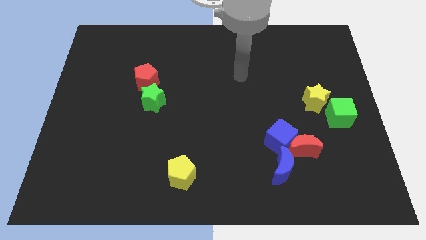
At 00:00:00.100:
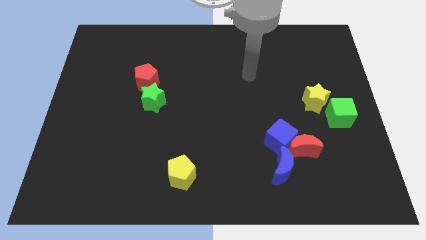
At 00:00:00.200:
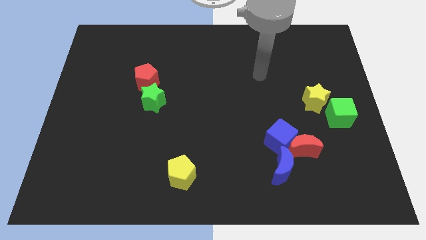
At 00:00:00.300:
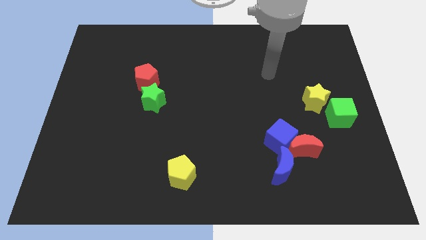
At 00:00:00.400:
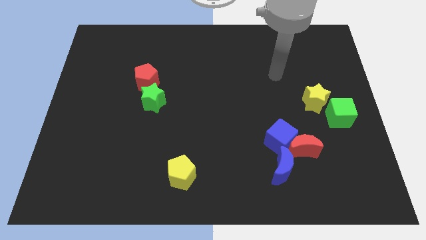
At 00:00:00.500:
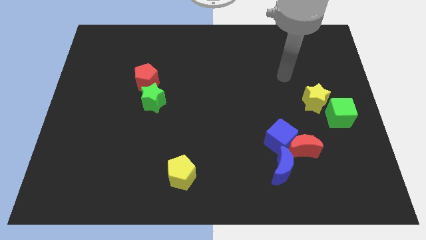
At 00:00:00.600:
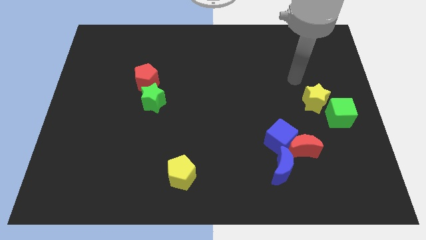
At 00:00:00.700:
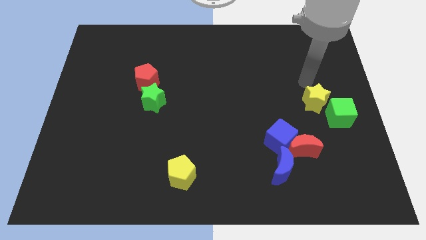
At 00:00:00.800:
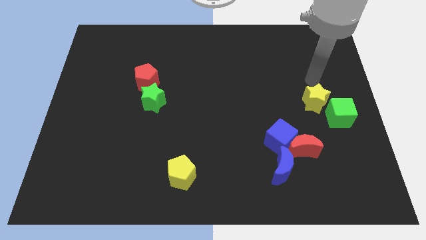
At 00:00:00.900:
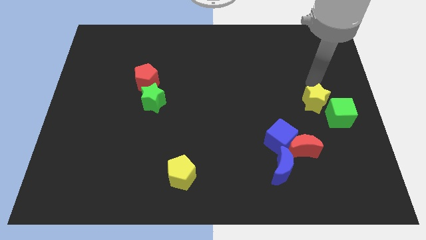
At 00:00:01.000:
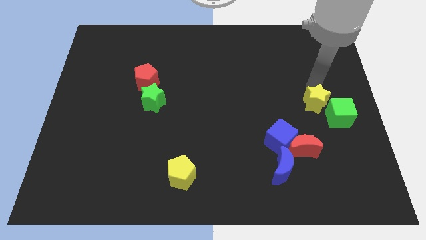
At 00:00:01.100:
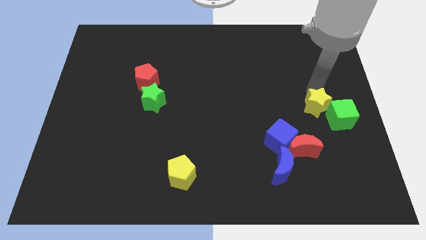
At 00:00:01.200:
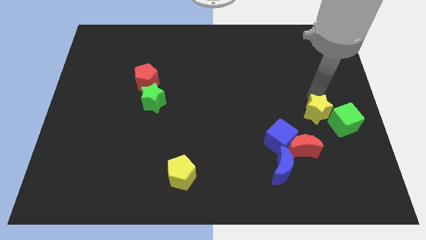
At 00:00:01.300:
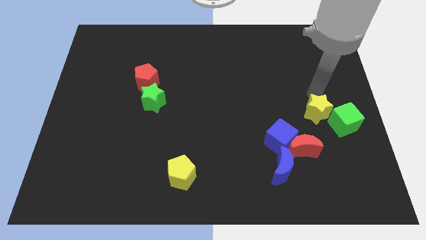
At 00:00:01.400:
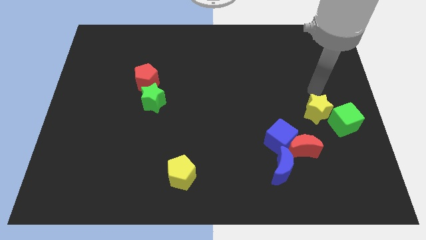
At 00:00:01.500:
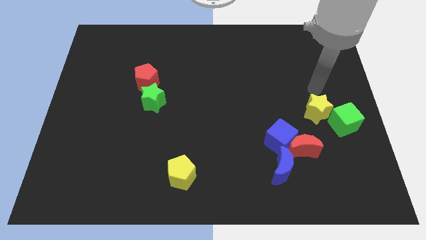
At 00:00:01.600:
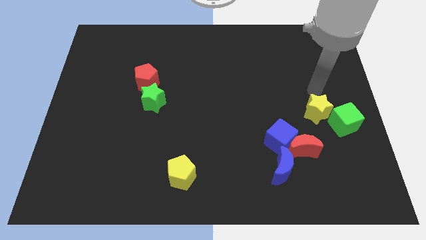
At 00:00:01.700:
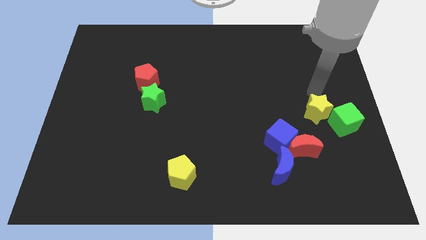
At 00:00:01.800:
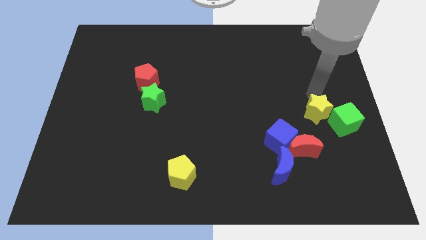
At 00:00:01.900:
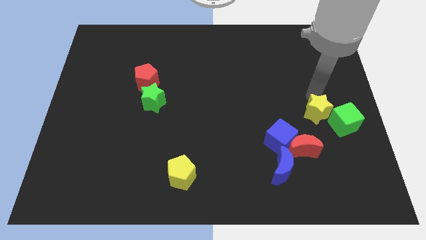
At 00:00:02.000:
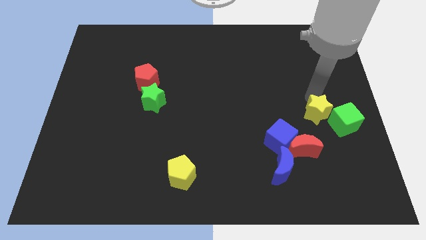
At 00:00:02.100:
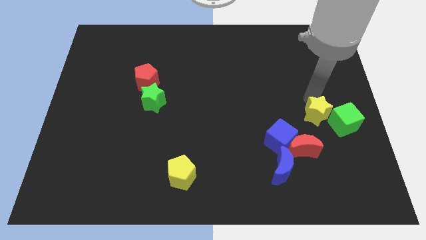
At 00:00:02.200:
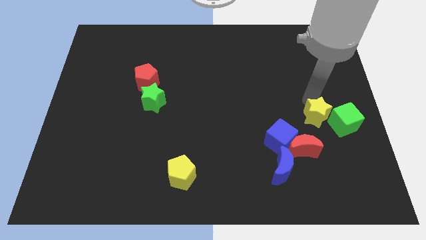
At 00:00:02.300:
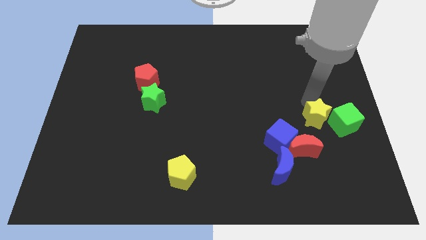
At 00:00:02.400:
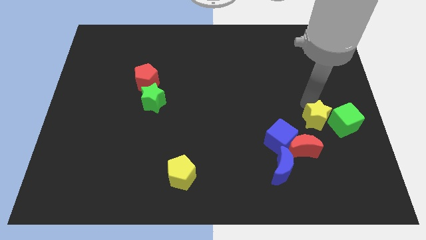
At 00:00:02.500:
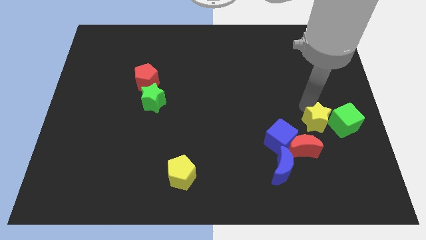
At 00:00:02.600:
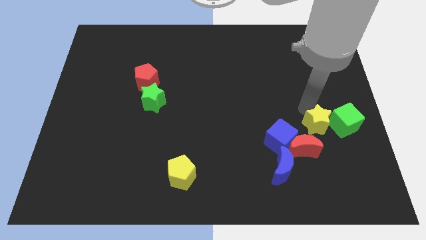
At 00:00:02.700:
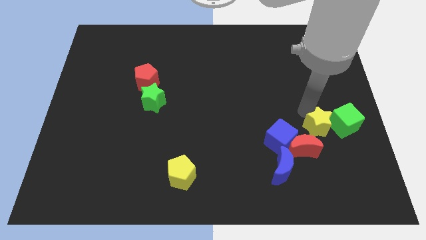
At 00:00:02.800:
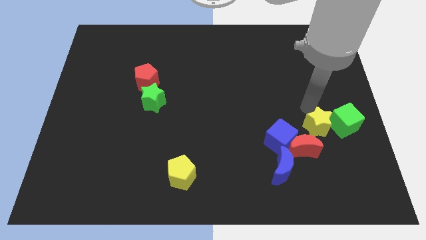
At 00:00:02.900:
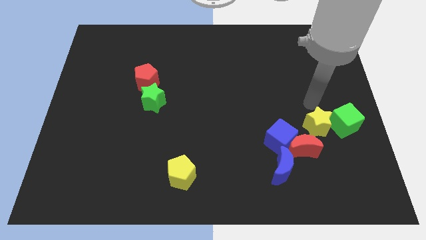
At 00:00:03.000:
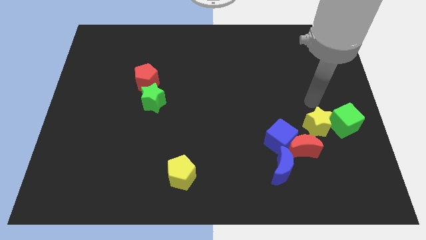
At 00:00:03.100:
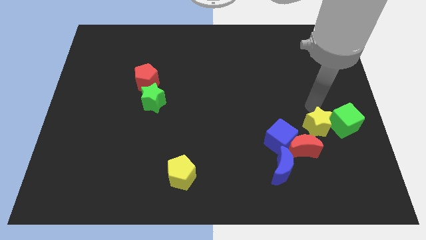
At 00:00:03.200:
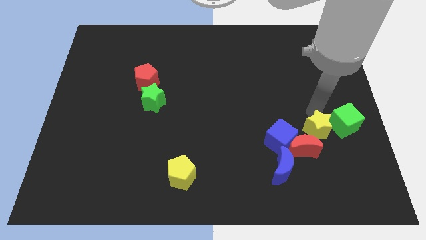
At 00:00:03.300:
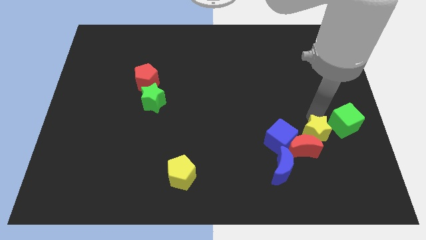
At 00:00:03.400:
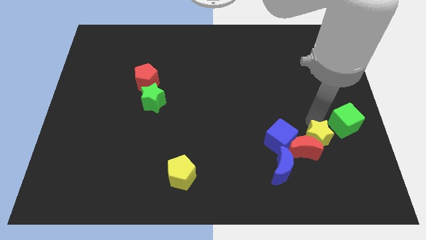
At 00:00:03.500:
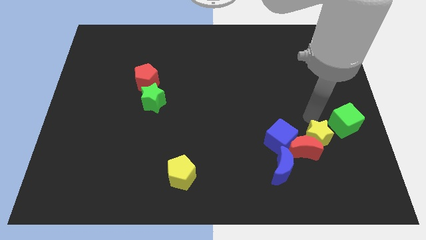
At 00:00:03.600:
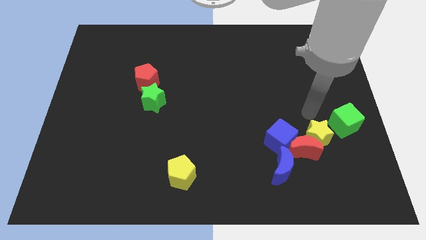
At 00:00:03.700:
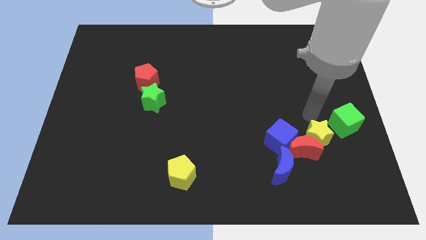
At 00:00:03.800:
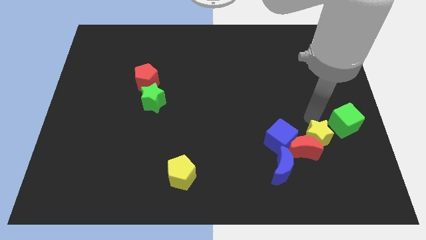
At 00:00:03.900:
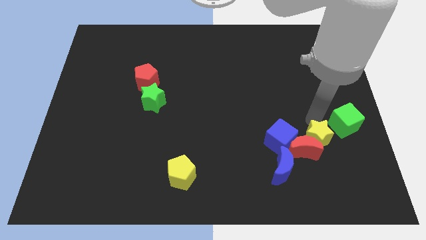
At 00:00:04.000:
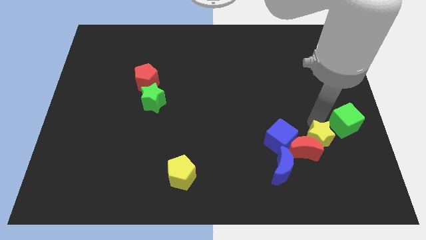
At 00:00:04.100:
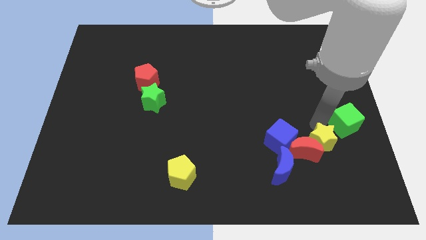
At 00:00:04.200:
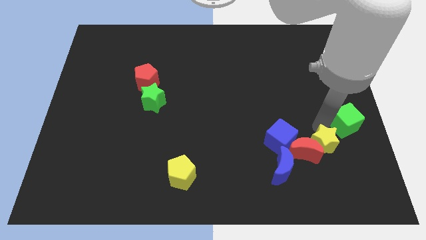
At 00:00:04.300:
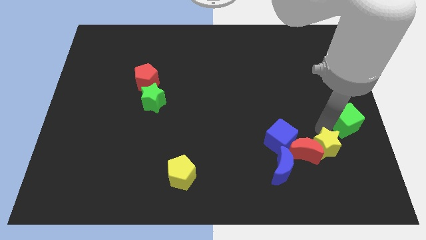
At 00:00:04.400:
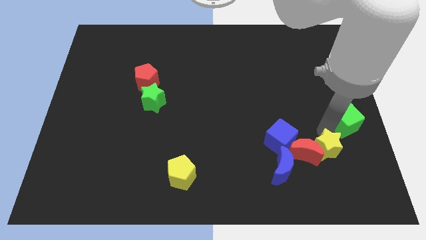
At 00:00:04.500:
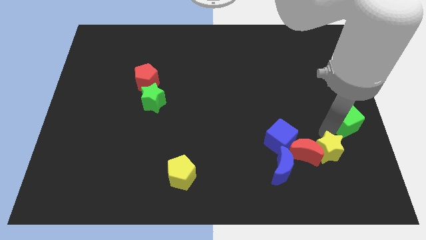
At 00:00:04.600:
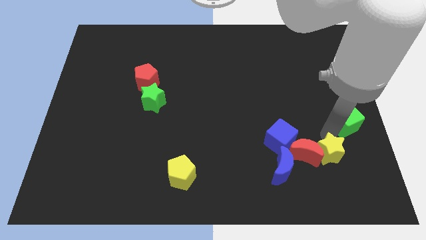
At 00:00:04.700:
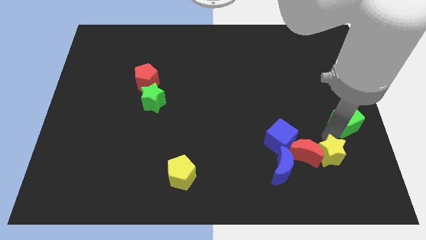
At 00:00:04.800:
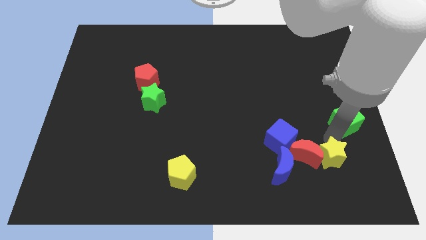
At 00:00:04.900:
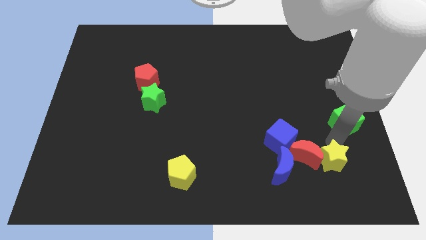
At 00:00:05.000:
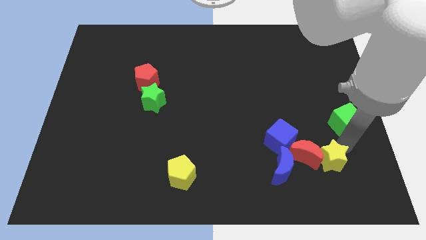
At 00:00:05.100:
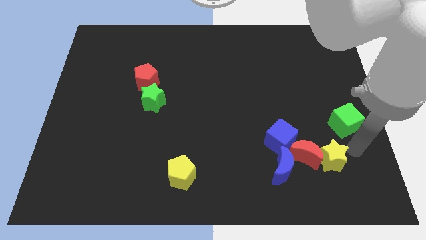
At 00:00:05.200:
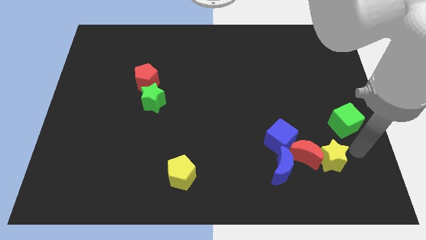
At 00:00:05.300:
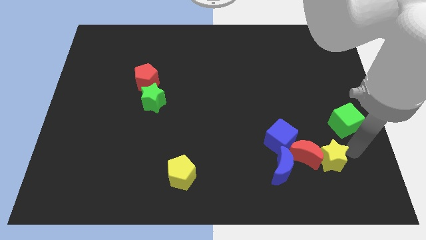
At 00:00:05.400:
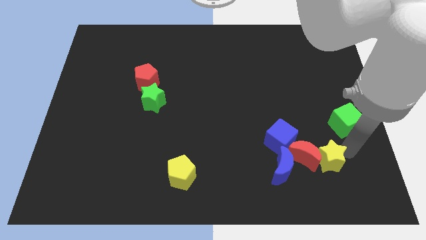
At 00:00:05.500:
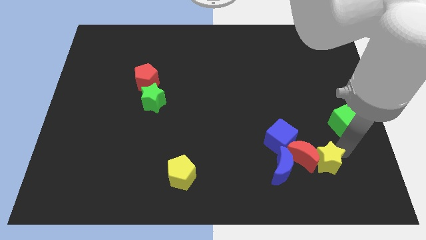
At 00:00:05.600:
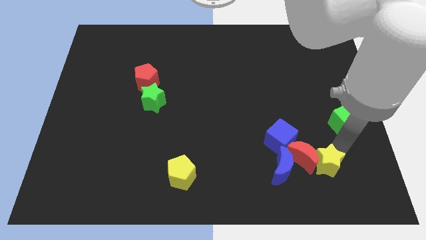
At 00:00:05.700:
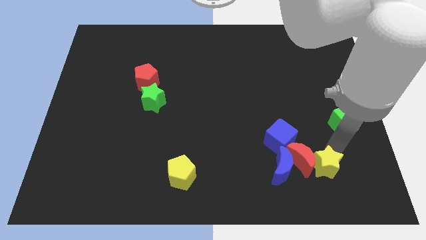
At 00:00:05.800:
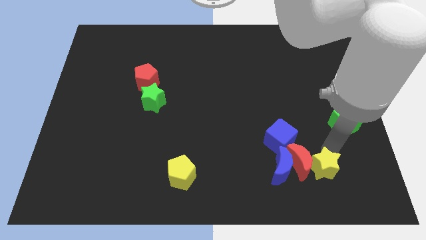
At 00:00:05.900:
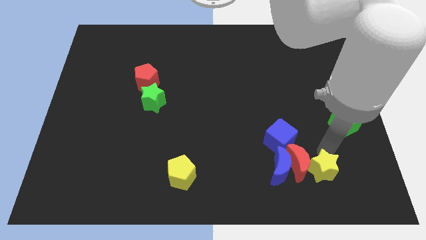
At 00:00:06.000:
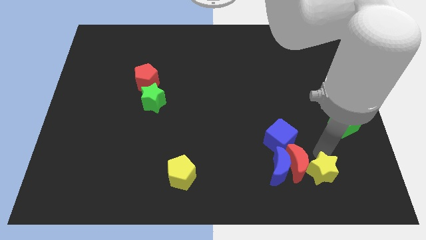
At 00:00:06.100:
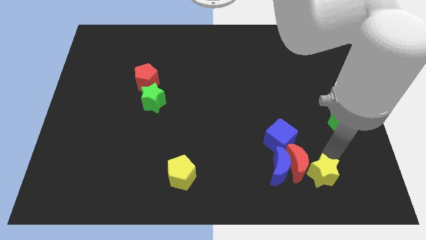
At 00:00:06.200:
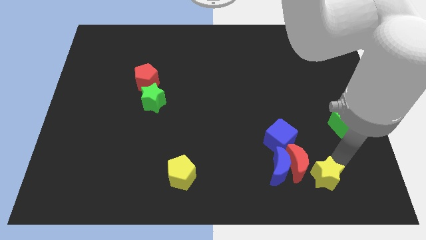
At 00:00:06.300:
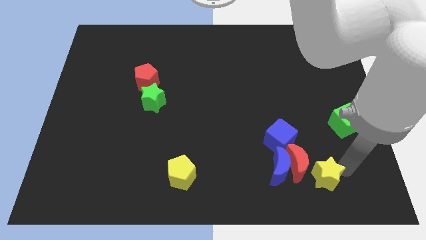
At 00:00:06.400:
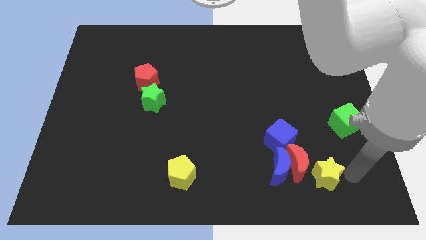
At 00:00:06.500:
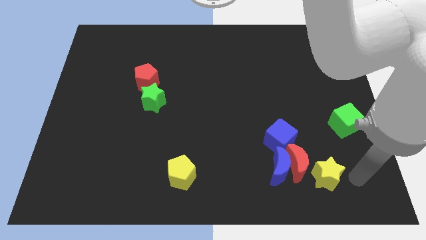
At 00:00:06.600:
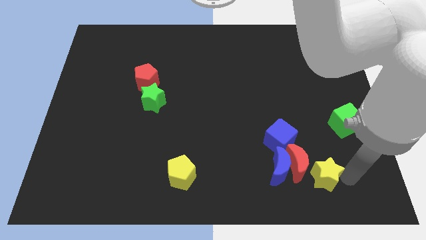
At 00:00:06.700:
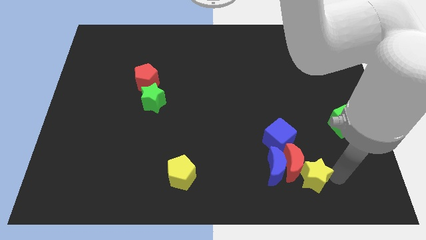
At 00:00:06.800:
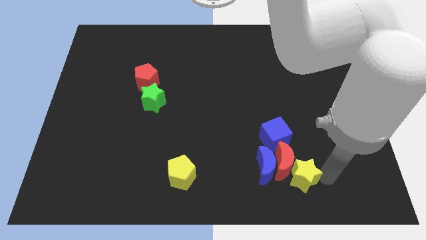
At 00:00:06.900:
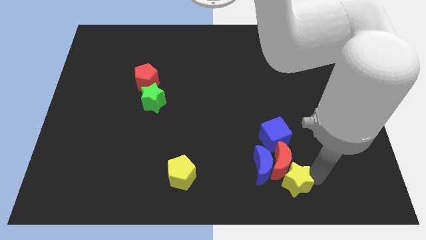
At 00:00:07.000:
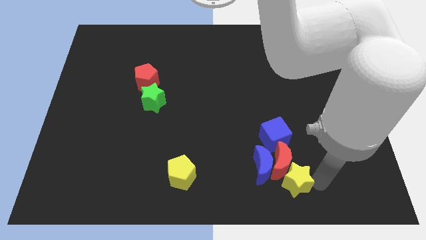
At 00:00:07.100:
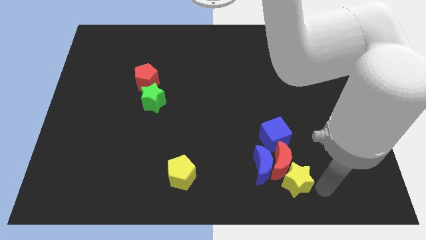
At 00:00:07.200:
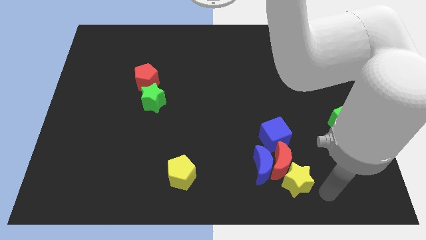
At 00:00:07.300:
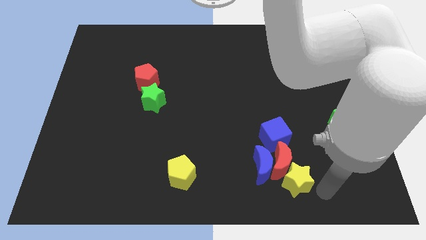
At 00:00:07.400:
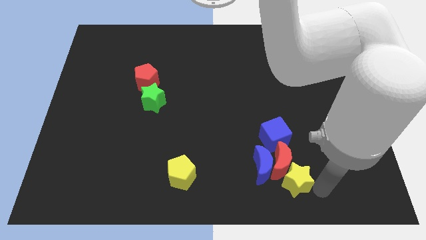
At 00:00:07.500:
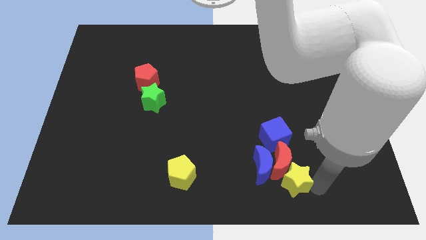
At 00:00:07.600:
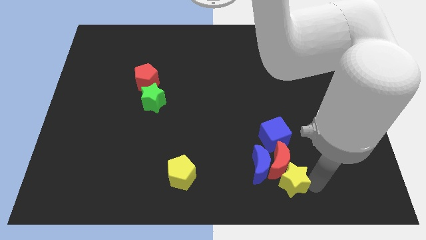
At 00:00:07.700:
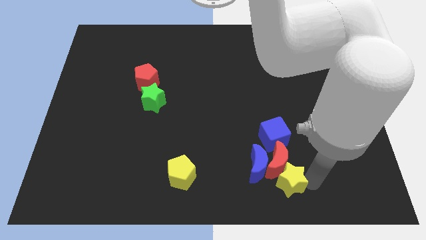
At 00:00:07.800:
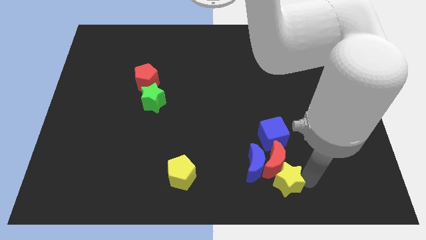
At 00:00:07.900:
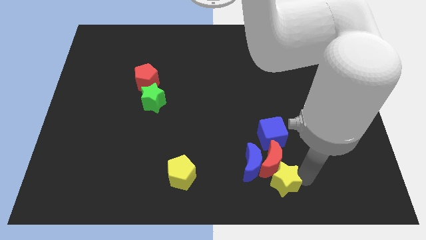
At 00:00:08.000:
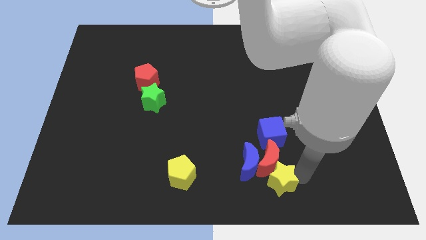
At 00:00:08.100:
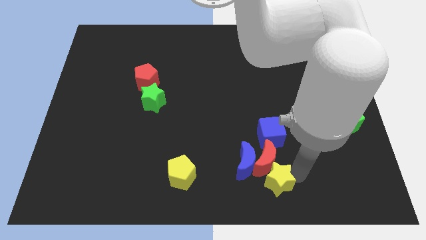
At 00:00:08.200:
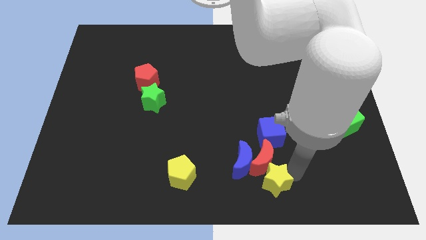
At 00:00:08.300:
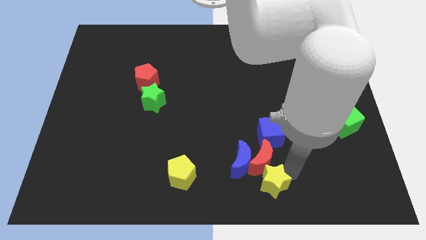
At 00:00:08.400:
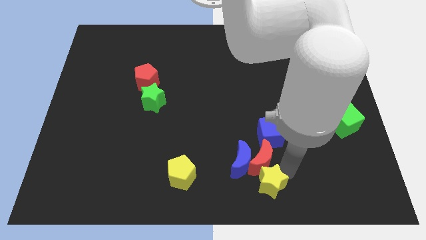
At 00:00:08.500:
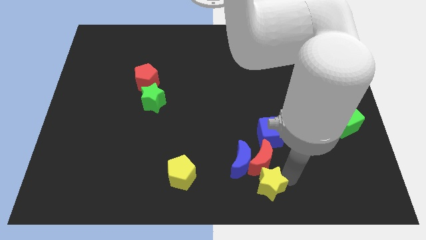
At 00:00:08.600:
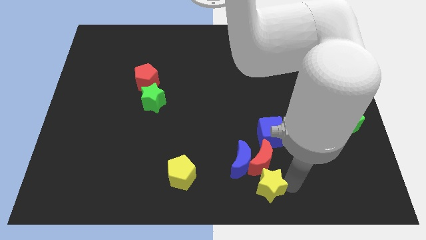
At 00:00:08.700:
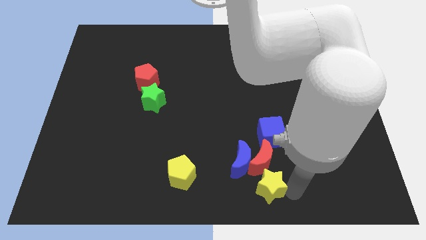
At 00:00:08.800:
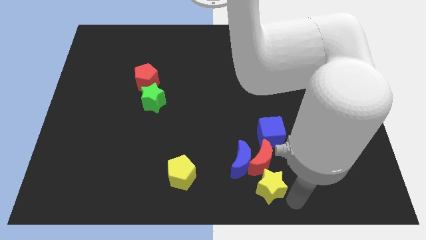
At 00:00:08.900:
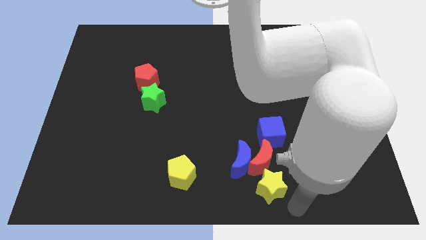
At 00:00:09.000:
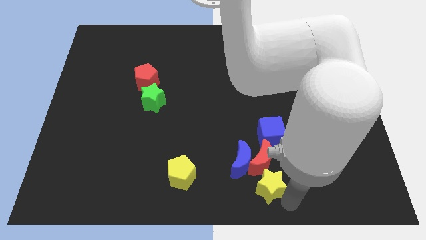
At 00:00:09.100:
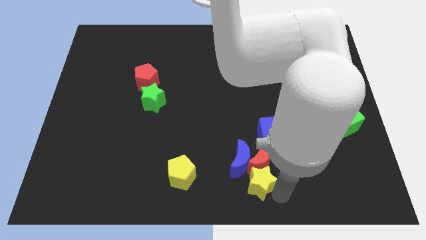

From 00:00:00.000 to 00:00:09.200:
move the yellow star to the blue moon
